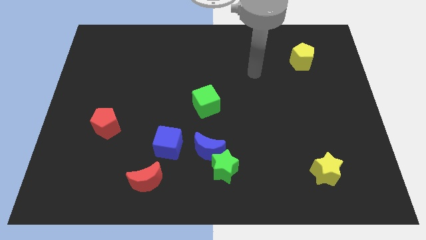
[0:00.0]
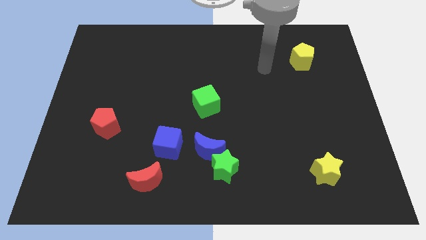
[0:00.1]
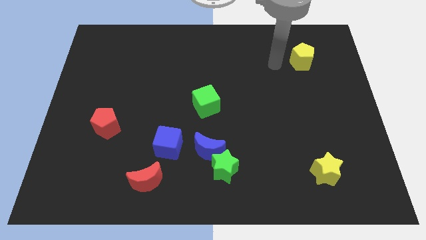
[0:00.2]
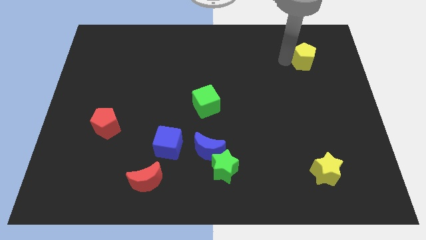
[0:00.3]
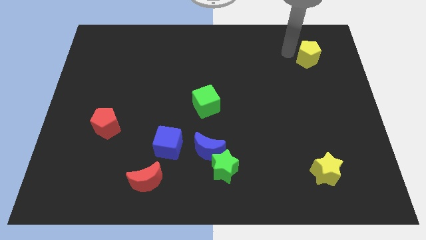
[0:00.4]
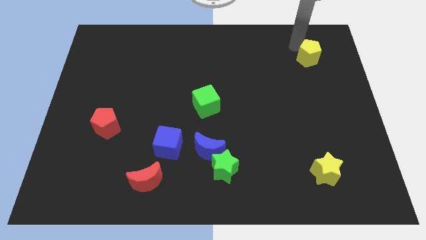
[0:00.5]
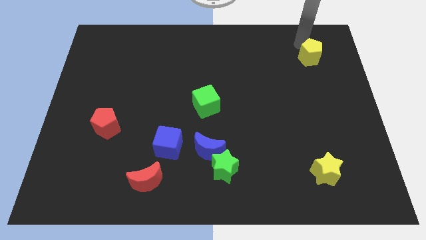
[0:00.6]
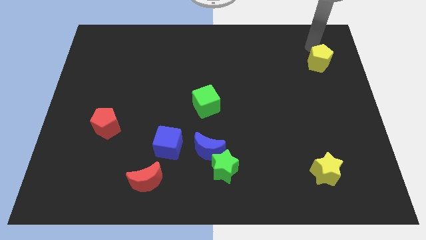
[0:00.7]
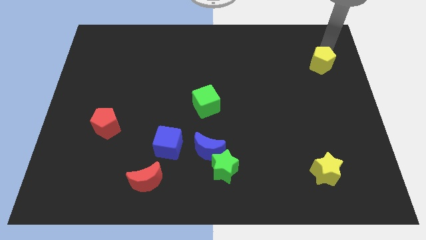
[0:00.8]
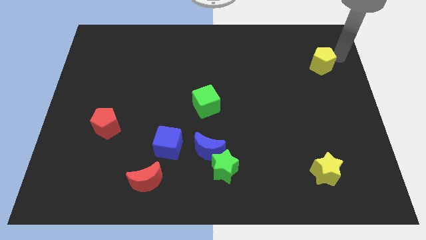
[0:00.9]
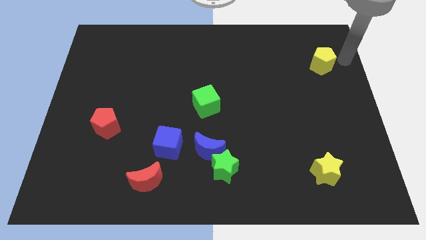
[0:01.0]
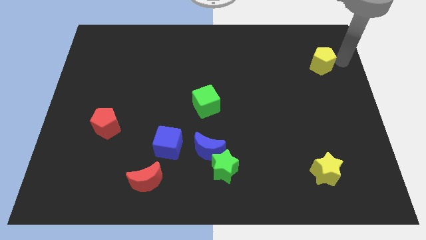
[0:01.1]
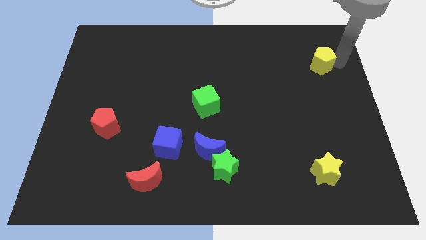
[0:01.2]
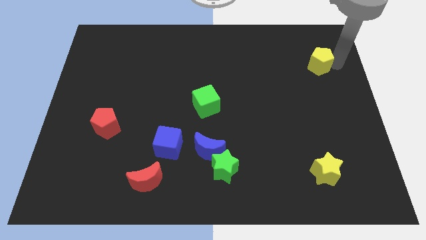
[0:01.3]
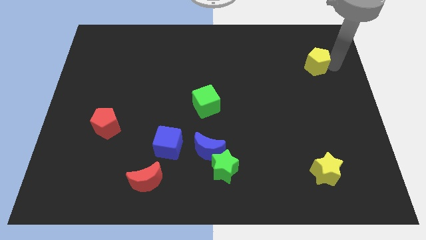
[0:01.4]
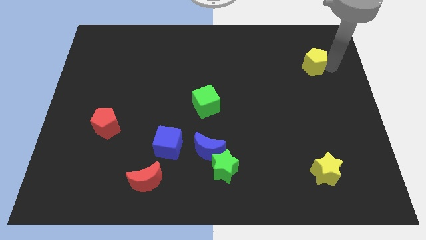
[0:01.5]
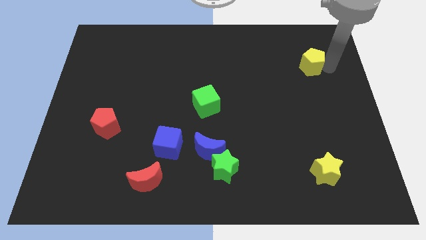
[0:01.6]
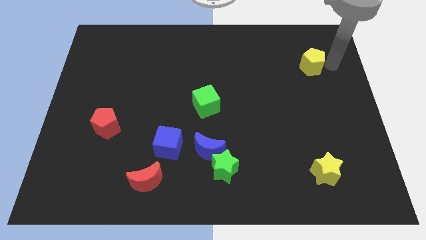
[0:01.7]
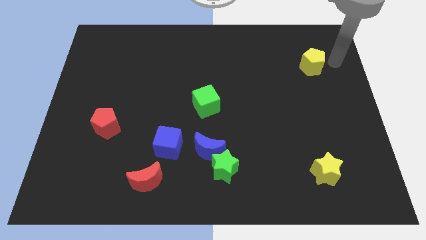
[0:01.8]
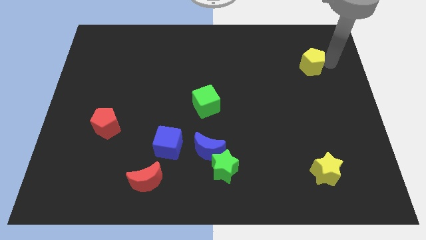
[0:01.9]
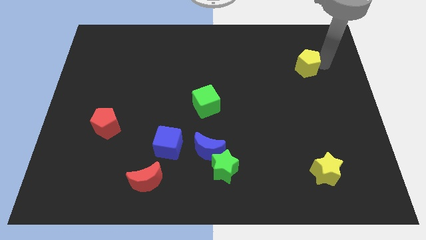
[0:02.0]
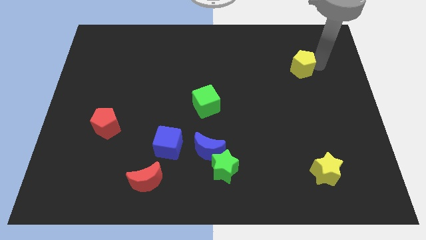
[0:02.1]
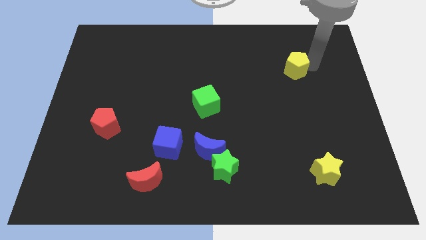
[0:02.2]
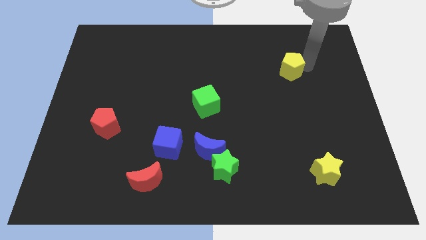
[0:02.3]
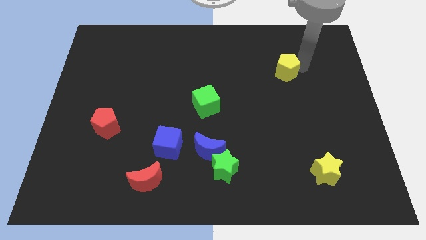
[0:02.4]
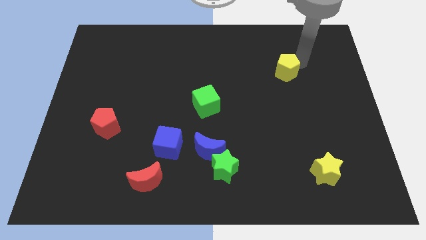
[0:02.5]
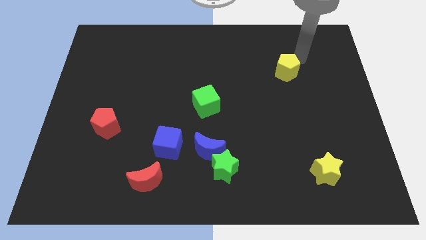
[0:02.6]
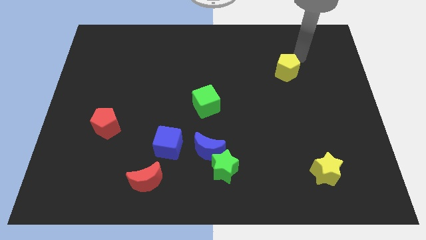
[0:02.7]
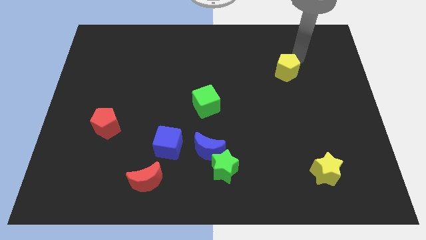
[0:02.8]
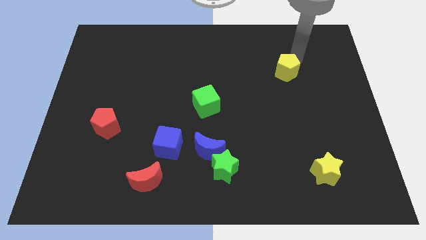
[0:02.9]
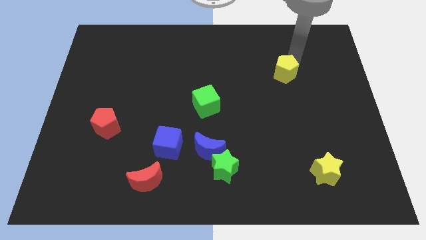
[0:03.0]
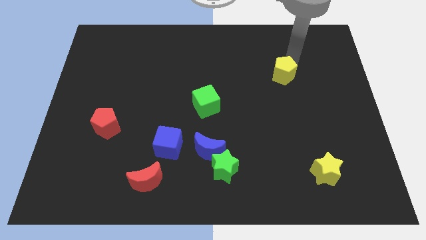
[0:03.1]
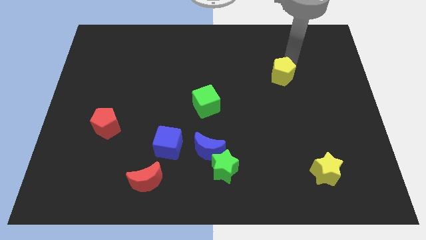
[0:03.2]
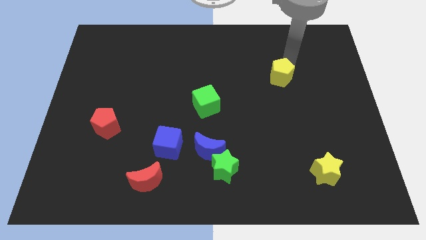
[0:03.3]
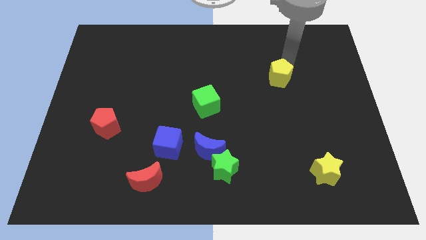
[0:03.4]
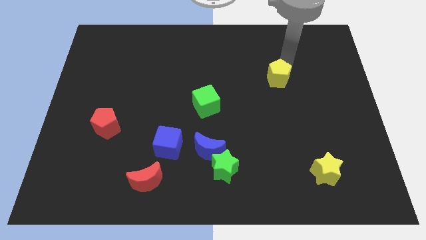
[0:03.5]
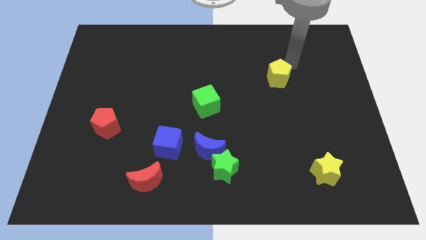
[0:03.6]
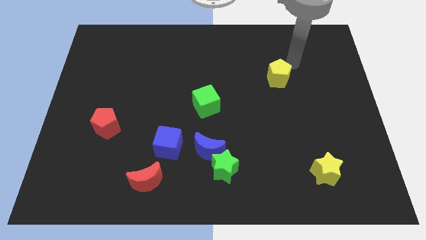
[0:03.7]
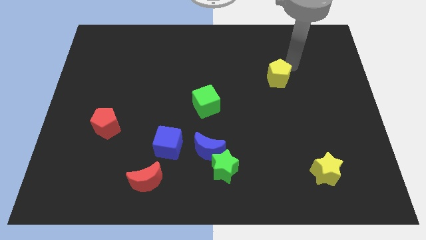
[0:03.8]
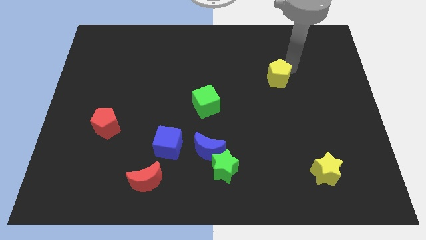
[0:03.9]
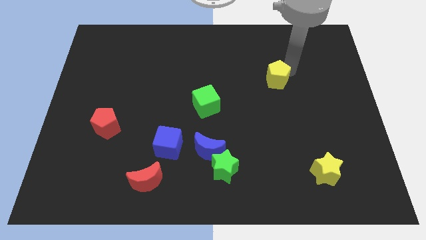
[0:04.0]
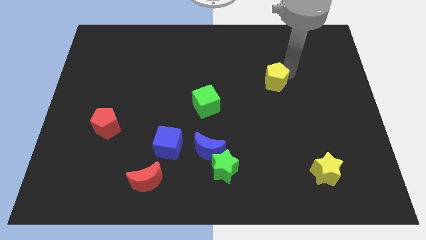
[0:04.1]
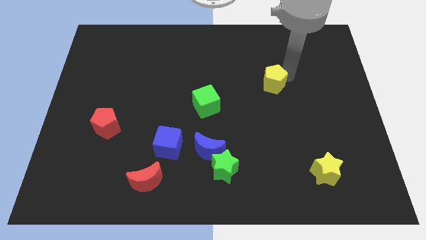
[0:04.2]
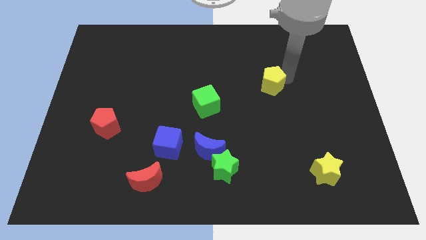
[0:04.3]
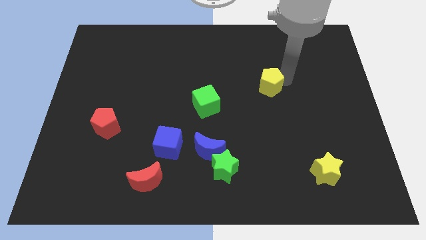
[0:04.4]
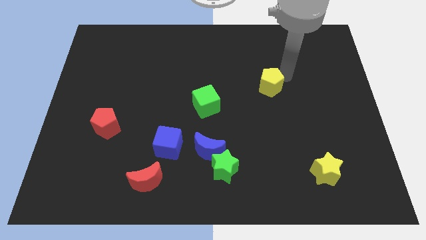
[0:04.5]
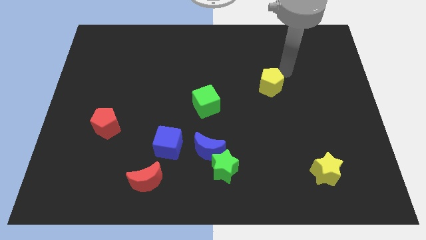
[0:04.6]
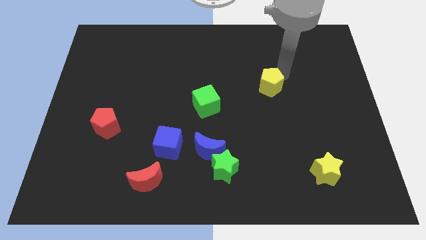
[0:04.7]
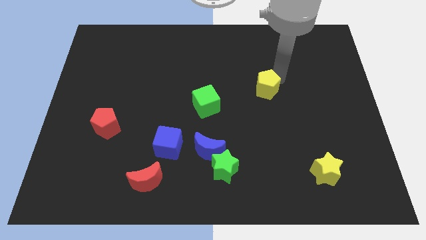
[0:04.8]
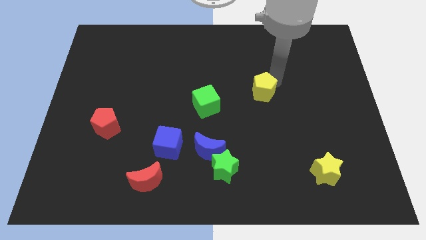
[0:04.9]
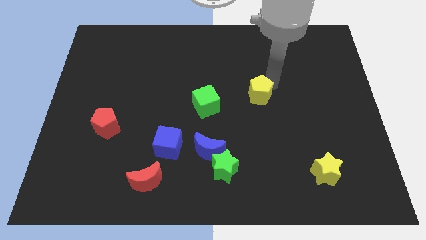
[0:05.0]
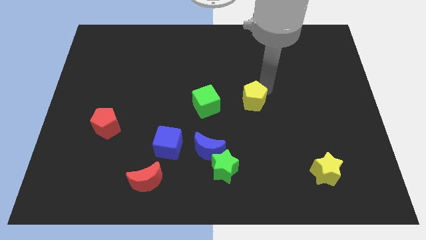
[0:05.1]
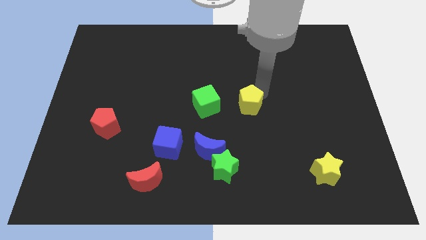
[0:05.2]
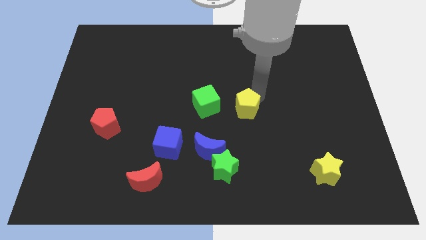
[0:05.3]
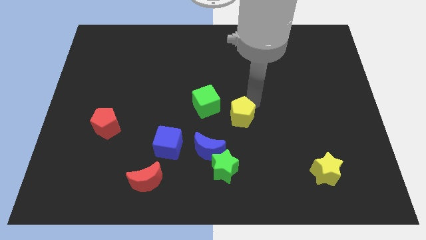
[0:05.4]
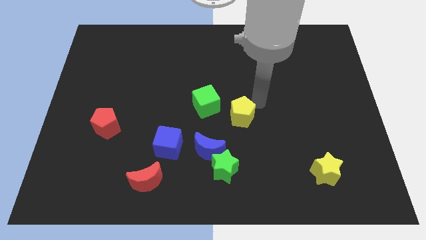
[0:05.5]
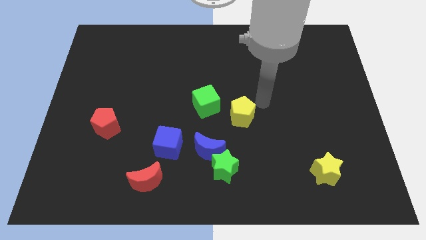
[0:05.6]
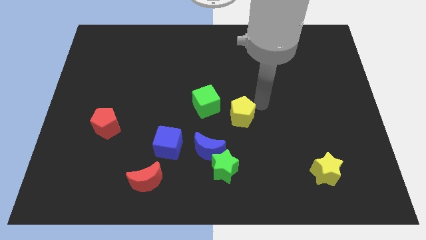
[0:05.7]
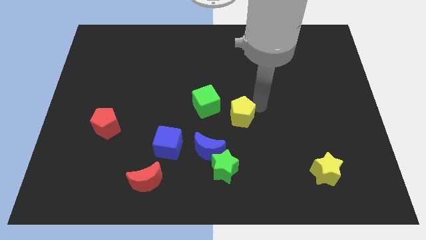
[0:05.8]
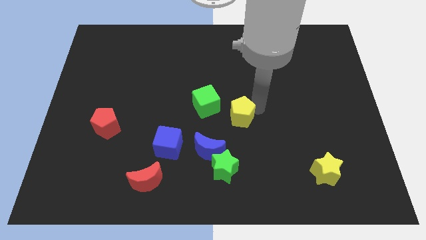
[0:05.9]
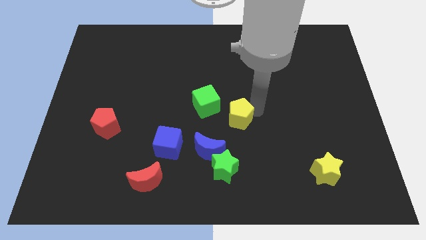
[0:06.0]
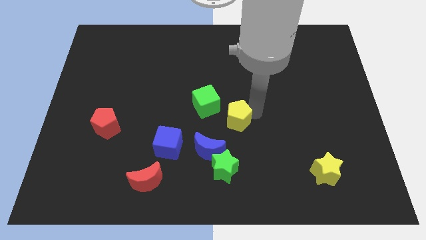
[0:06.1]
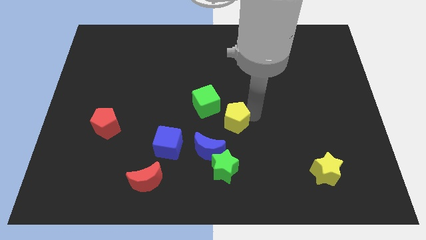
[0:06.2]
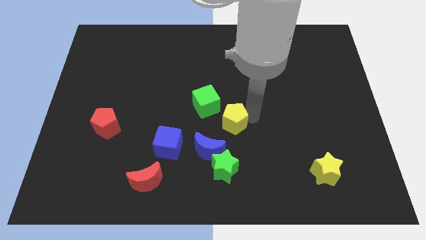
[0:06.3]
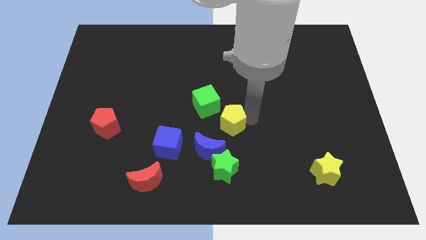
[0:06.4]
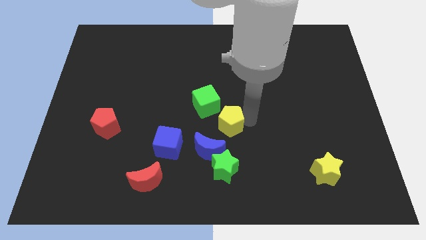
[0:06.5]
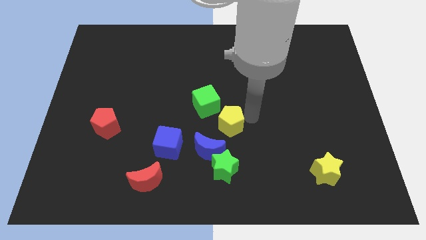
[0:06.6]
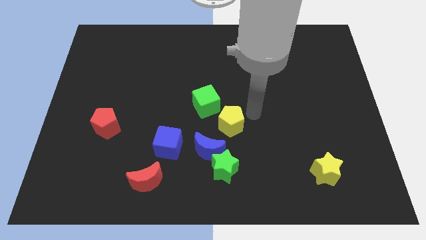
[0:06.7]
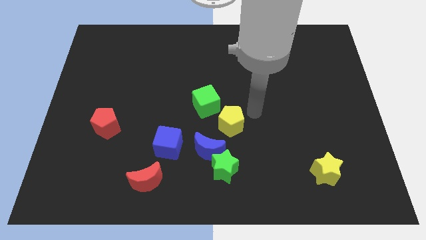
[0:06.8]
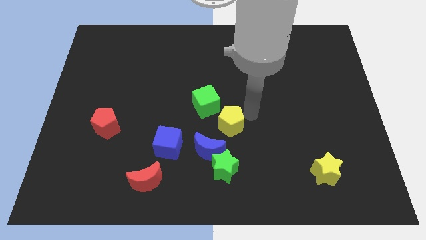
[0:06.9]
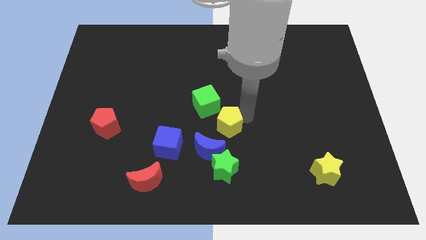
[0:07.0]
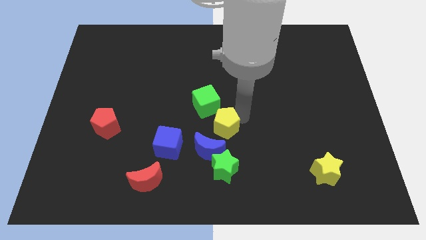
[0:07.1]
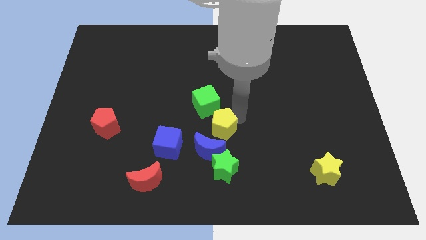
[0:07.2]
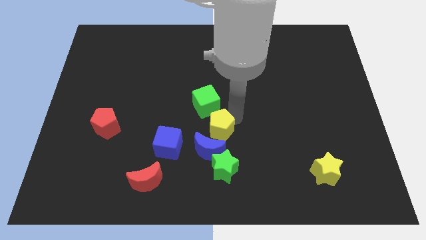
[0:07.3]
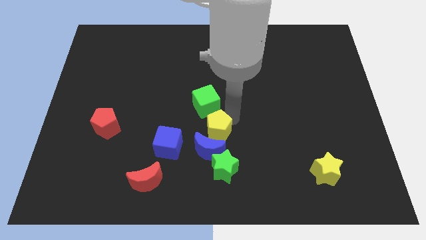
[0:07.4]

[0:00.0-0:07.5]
put the yellow pentagon next to the blue moon
